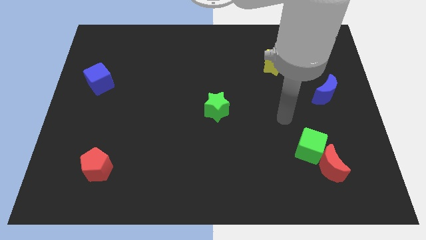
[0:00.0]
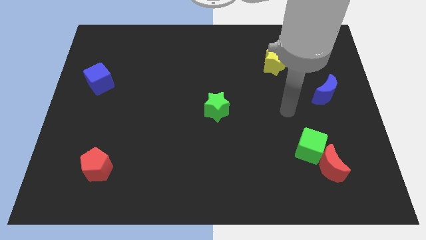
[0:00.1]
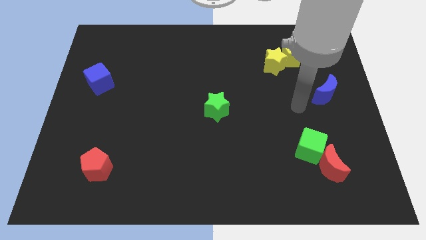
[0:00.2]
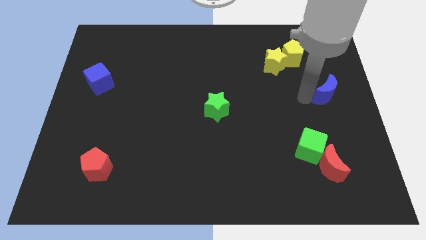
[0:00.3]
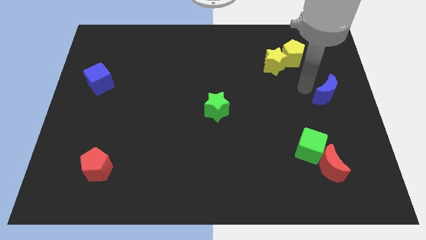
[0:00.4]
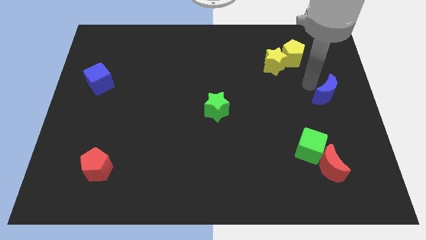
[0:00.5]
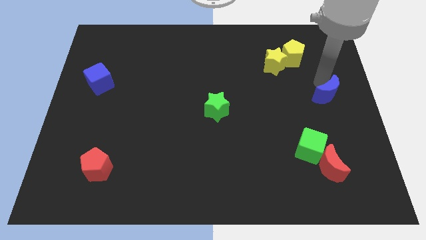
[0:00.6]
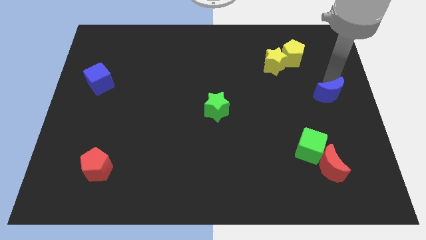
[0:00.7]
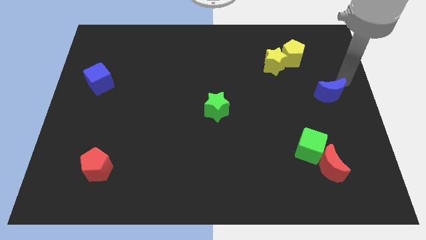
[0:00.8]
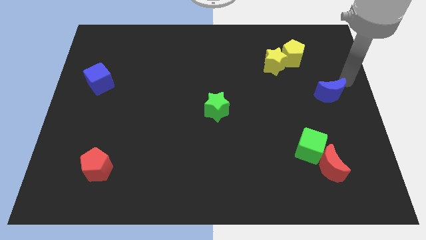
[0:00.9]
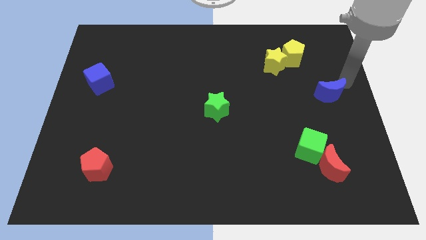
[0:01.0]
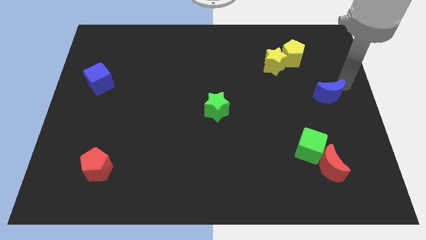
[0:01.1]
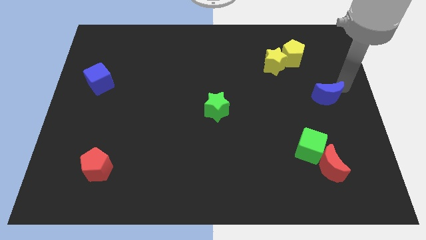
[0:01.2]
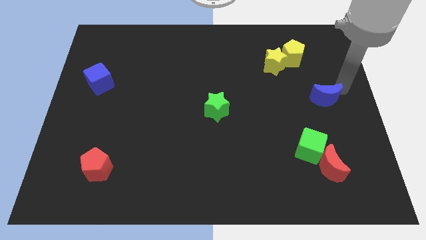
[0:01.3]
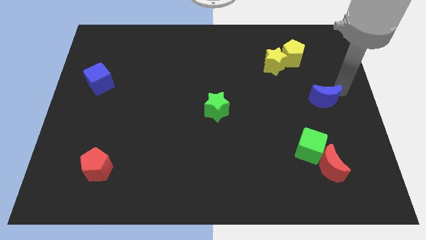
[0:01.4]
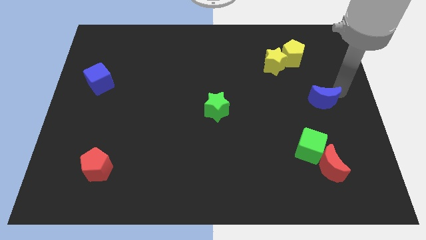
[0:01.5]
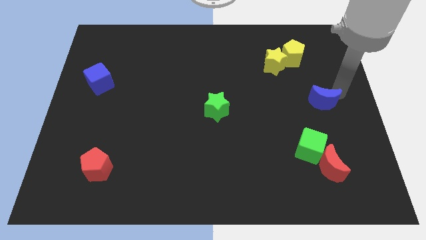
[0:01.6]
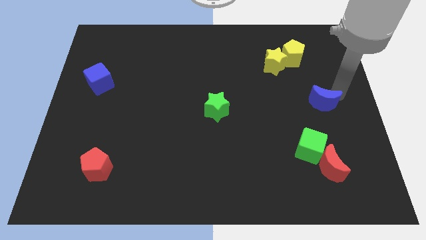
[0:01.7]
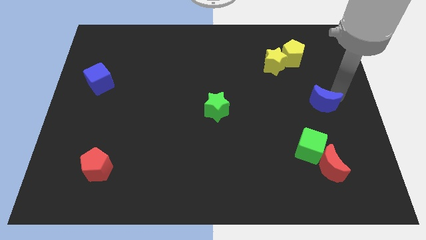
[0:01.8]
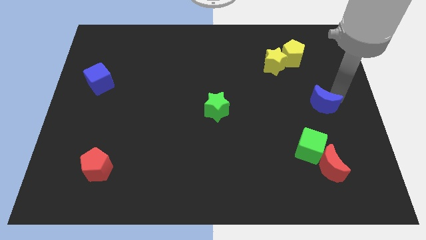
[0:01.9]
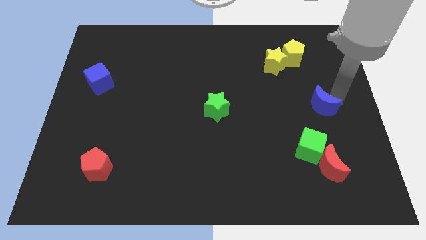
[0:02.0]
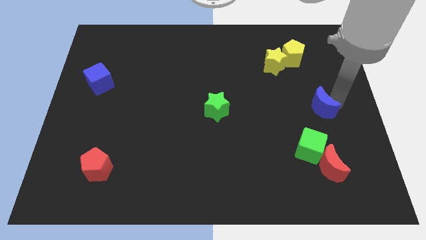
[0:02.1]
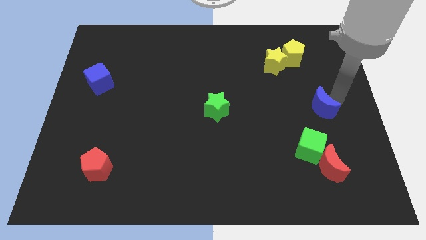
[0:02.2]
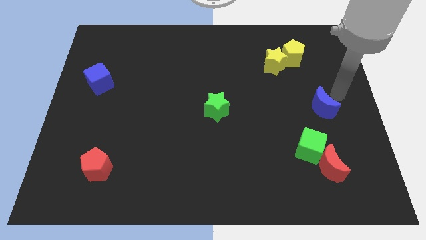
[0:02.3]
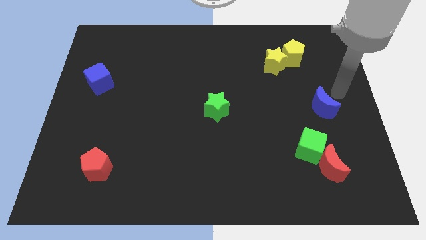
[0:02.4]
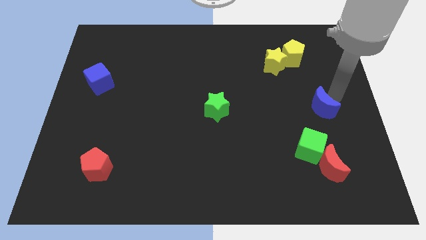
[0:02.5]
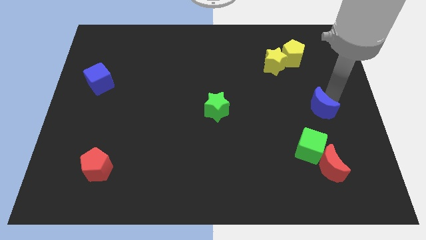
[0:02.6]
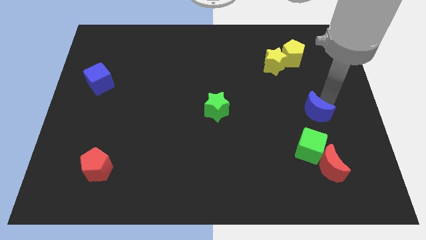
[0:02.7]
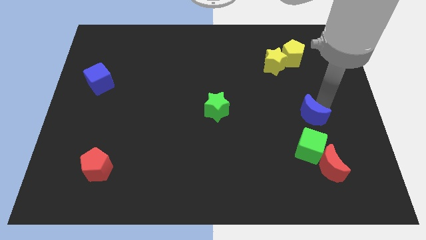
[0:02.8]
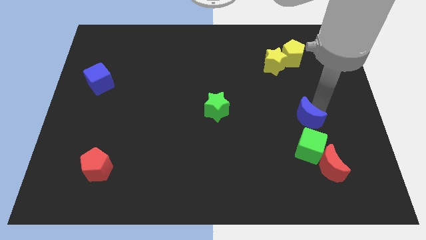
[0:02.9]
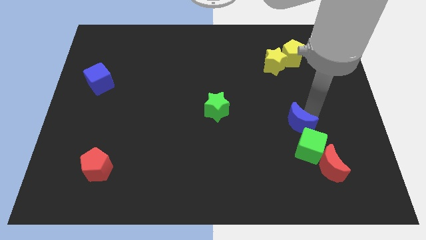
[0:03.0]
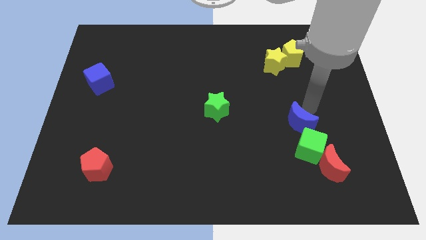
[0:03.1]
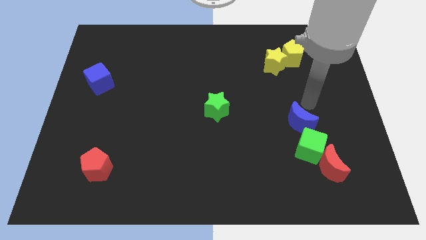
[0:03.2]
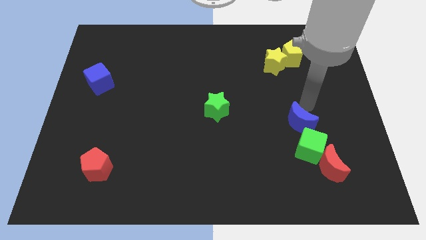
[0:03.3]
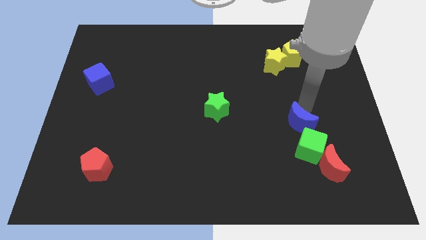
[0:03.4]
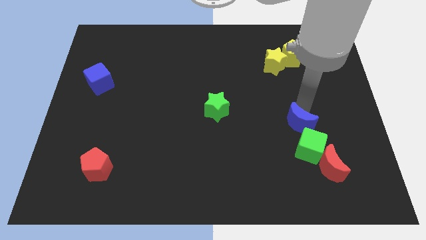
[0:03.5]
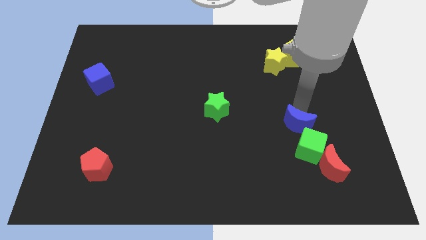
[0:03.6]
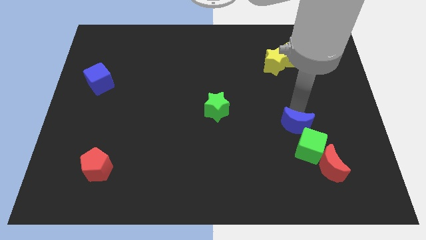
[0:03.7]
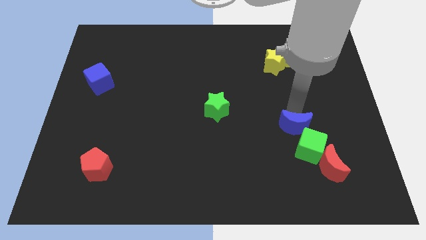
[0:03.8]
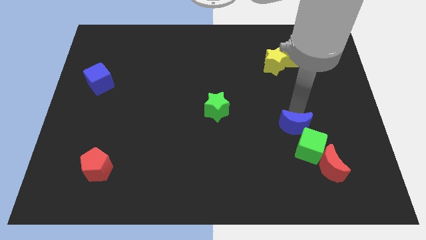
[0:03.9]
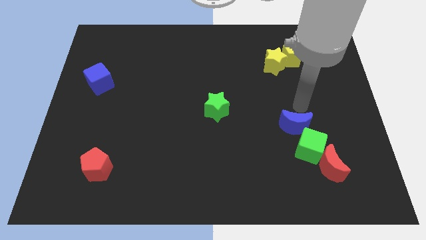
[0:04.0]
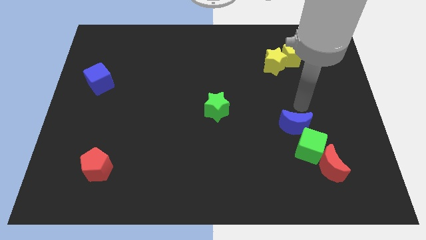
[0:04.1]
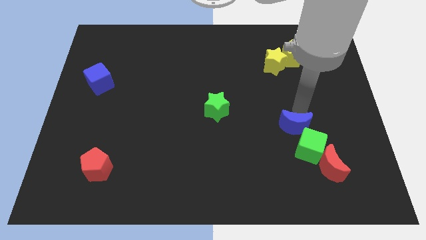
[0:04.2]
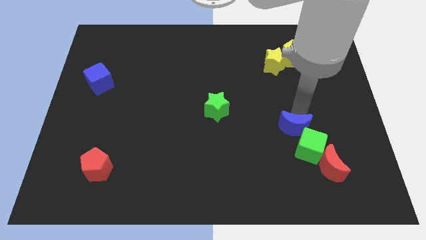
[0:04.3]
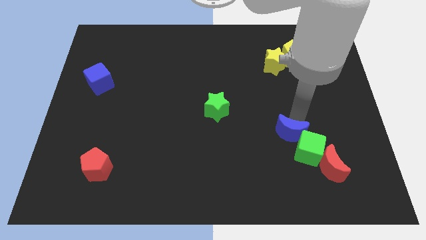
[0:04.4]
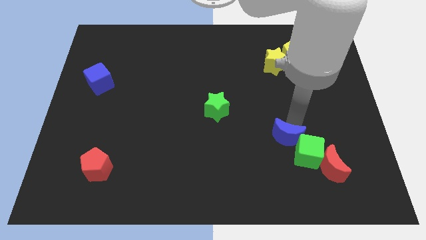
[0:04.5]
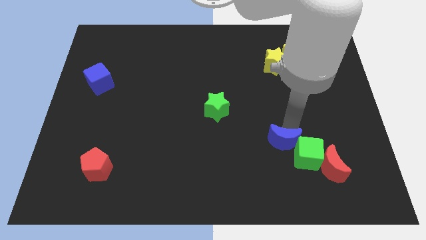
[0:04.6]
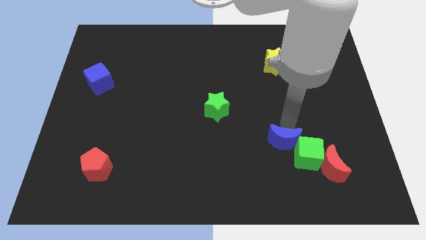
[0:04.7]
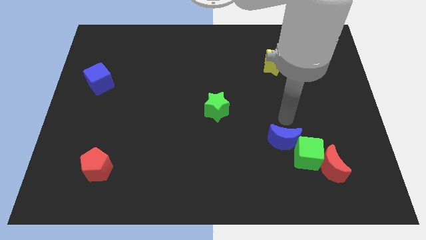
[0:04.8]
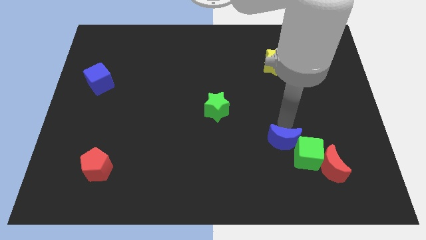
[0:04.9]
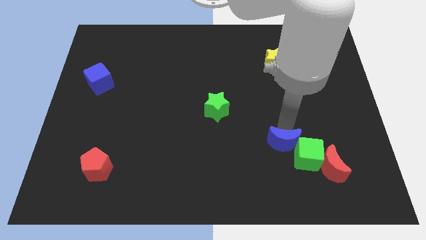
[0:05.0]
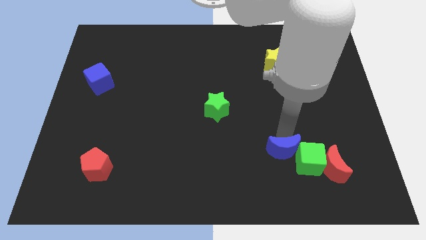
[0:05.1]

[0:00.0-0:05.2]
put the blue moon to the left of the red moon

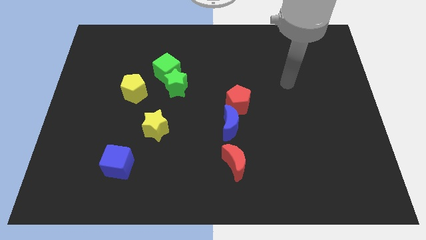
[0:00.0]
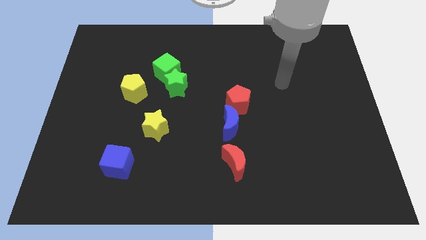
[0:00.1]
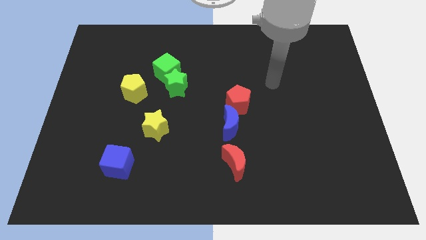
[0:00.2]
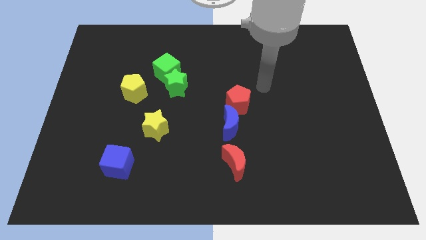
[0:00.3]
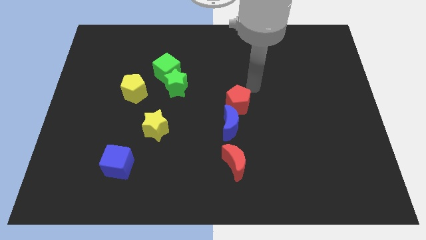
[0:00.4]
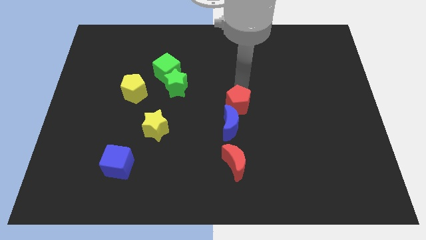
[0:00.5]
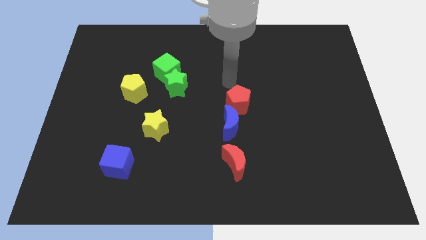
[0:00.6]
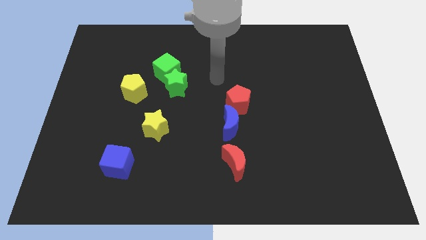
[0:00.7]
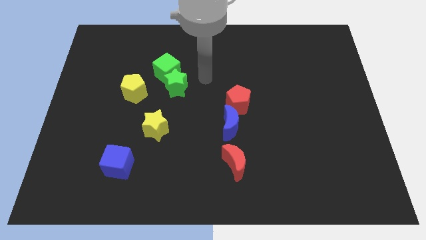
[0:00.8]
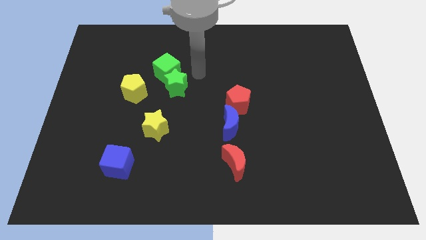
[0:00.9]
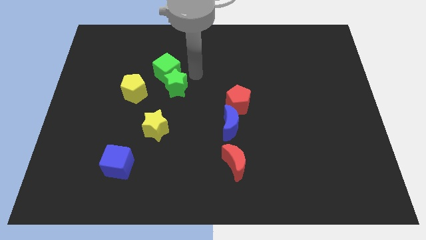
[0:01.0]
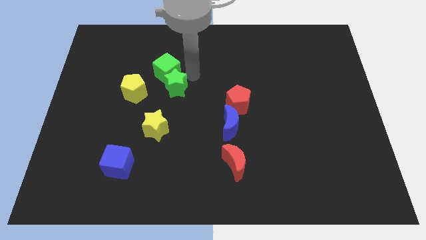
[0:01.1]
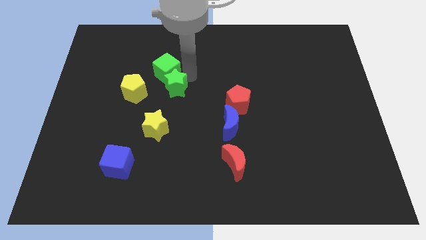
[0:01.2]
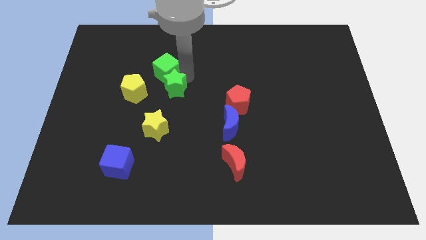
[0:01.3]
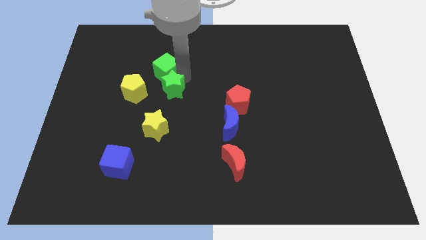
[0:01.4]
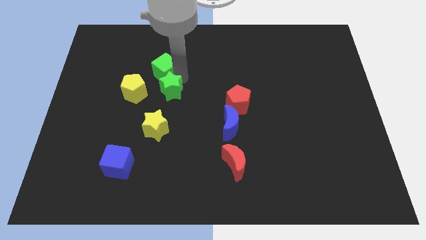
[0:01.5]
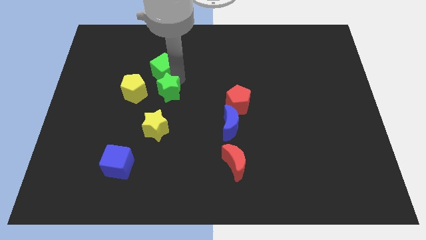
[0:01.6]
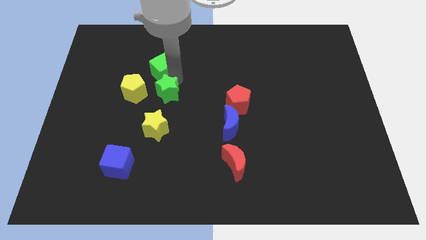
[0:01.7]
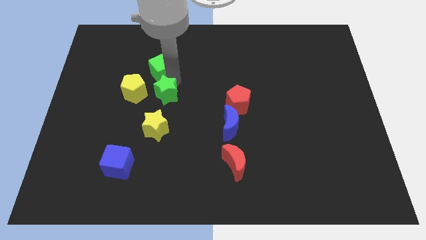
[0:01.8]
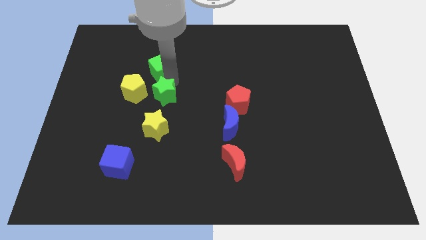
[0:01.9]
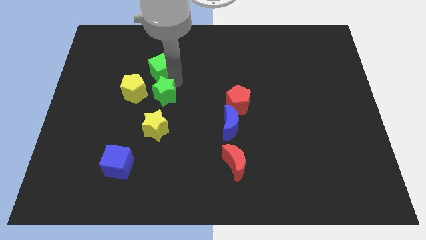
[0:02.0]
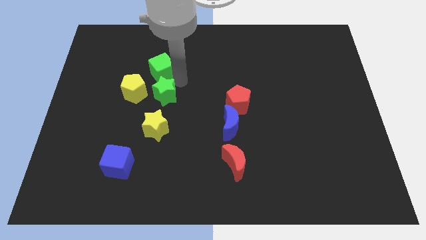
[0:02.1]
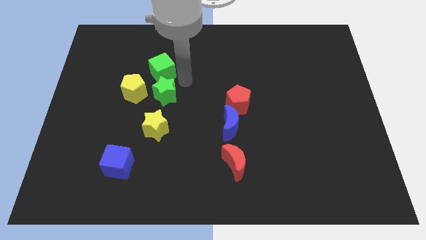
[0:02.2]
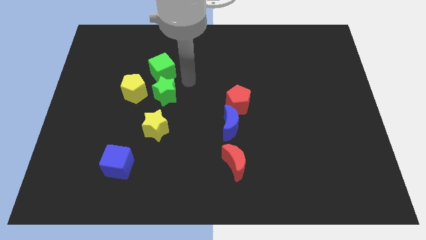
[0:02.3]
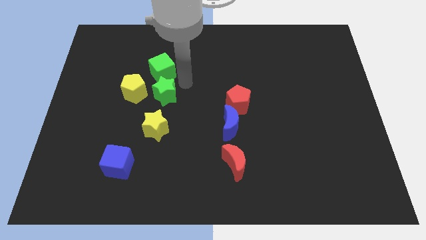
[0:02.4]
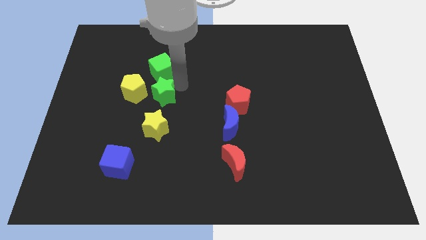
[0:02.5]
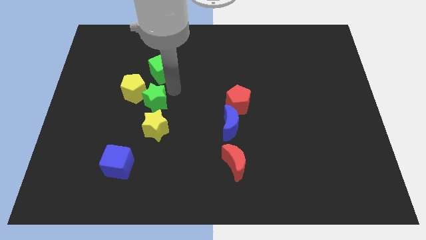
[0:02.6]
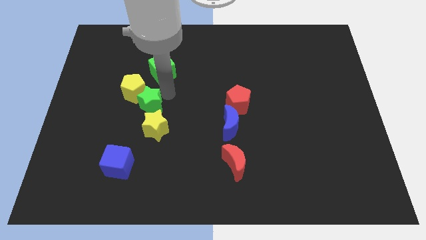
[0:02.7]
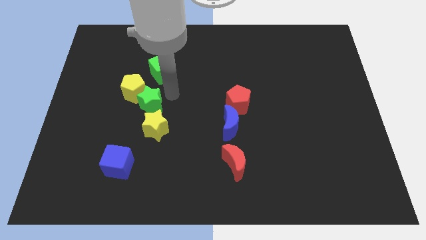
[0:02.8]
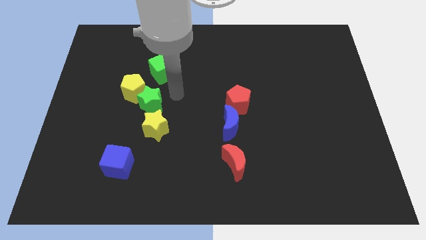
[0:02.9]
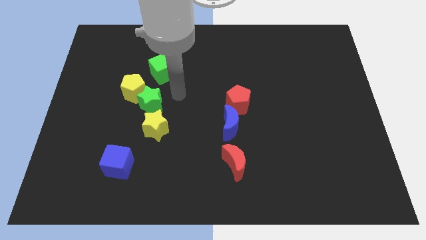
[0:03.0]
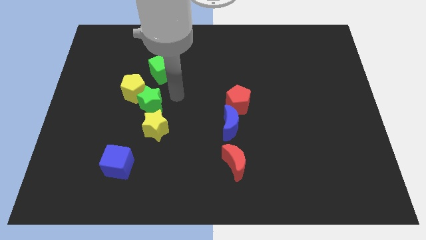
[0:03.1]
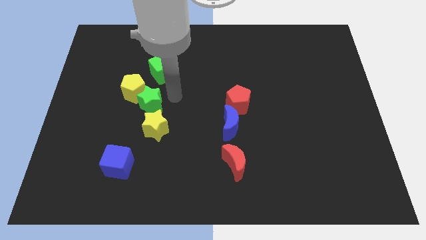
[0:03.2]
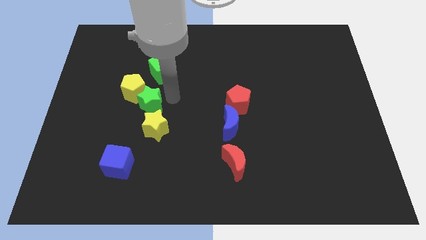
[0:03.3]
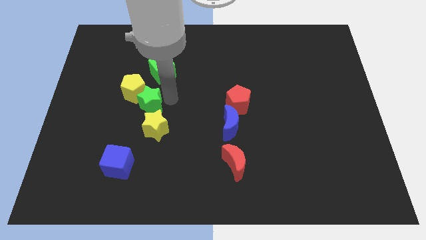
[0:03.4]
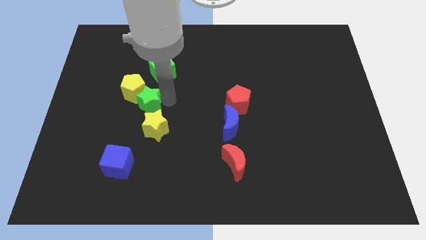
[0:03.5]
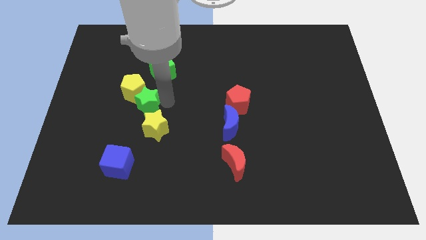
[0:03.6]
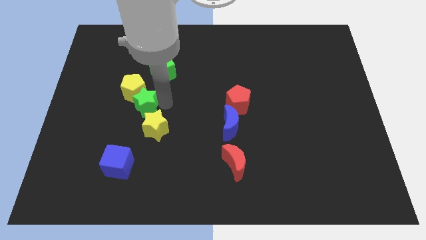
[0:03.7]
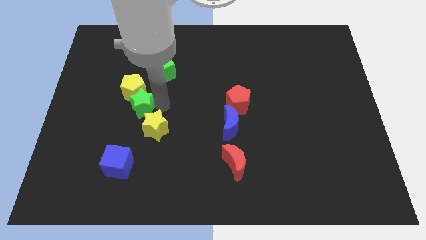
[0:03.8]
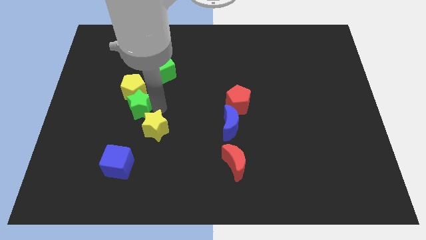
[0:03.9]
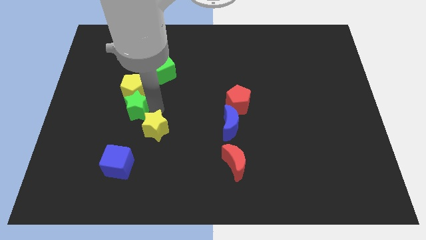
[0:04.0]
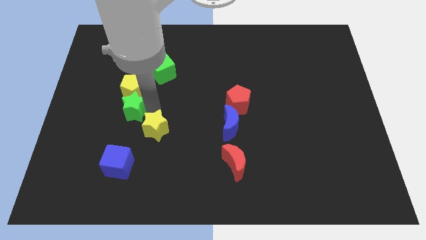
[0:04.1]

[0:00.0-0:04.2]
move the green star to the bottom left side of the yellow pentagon
